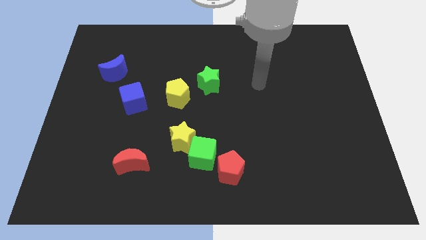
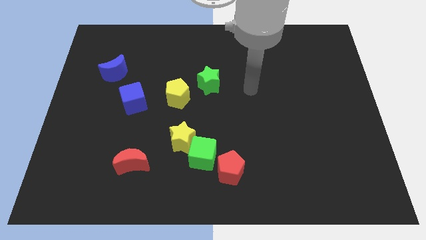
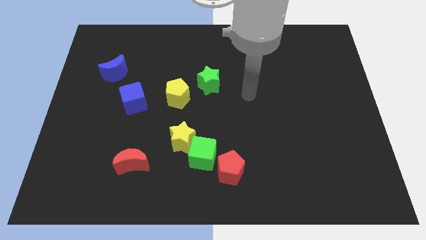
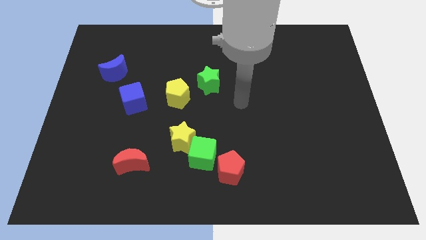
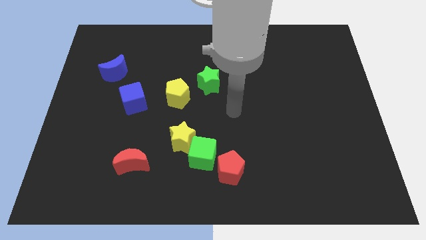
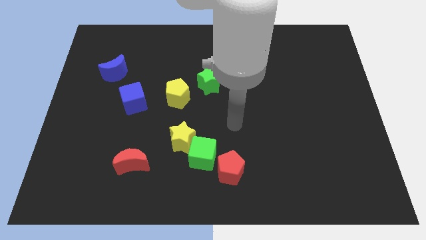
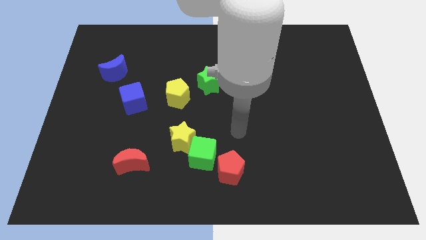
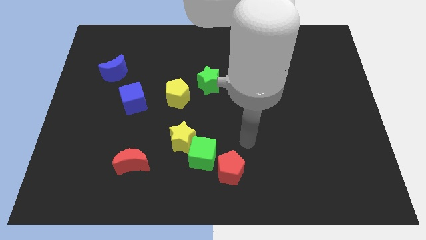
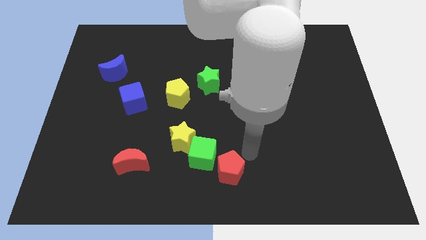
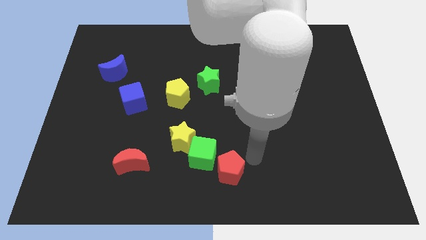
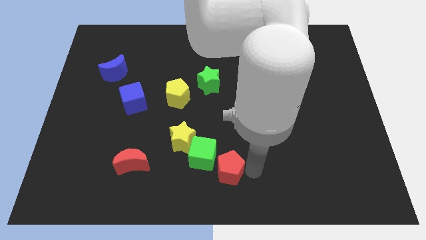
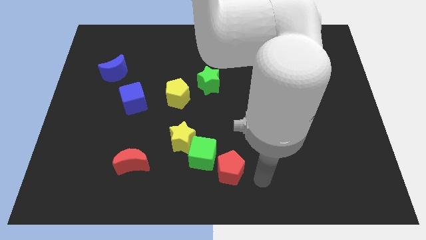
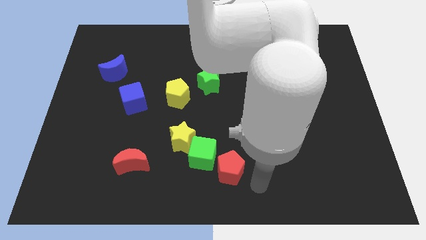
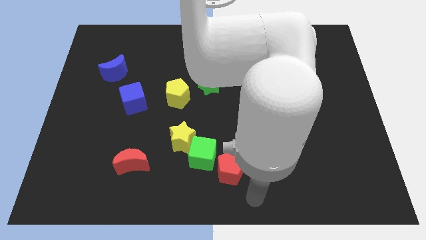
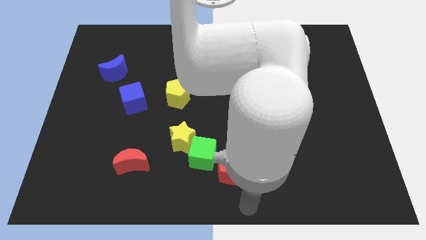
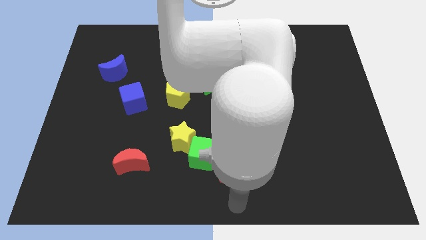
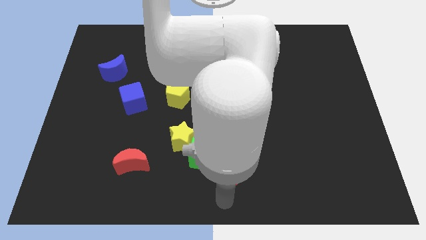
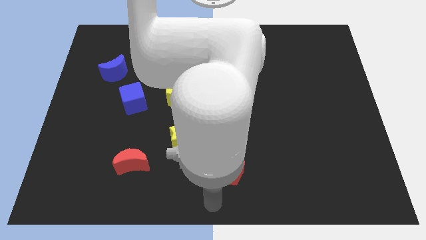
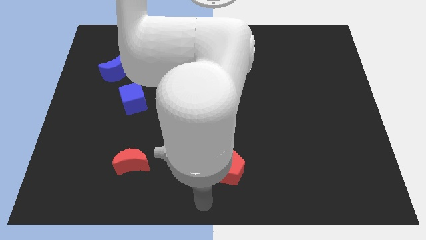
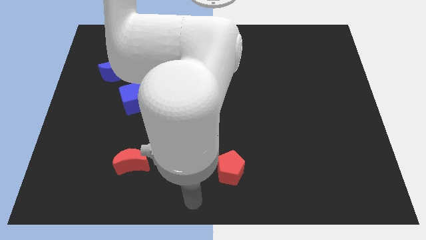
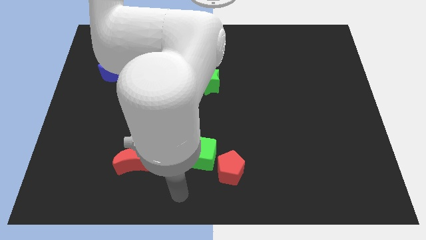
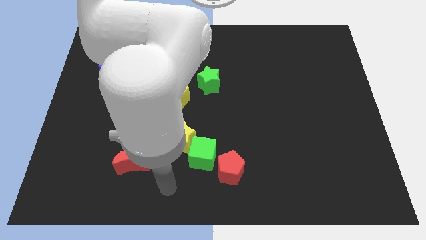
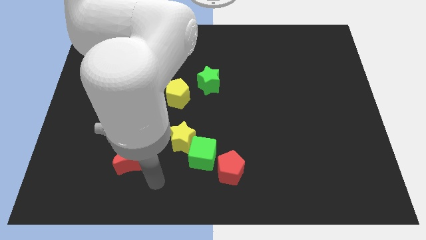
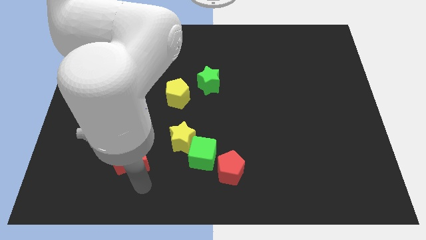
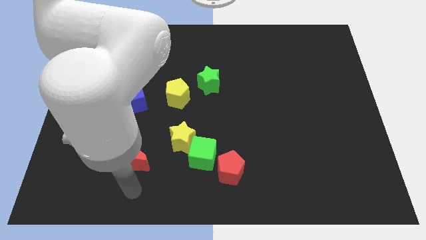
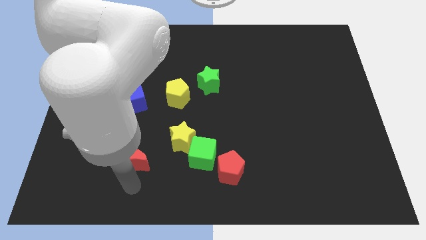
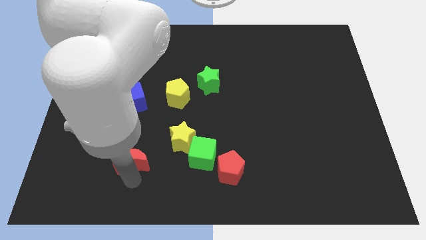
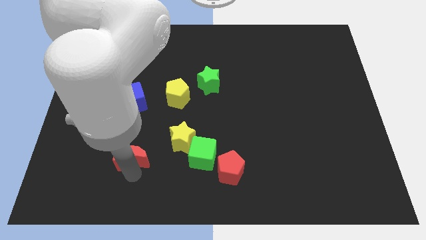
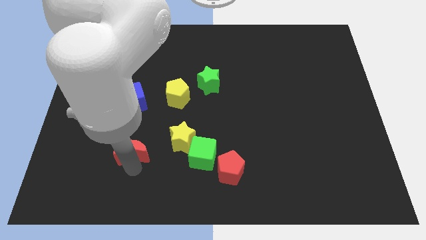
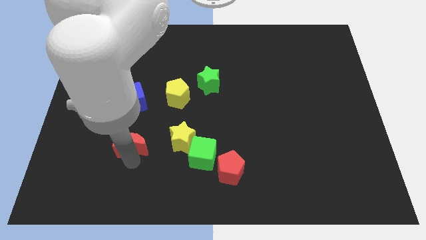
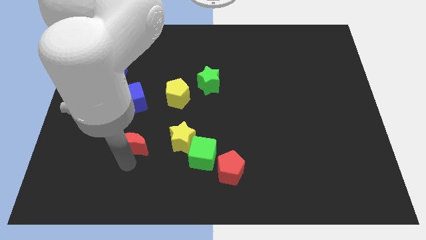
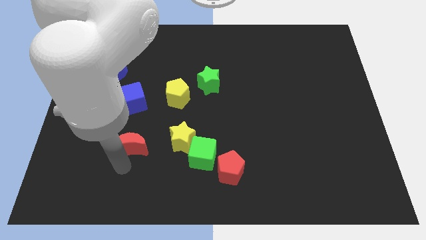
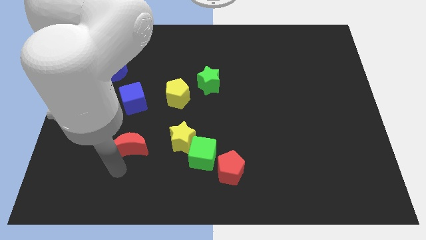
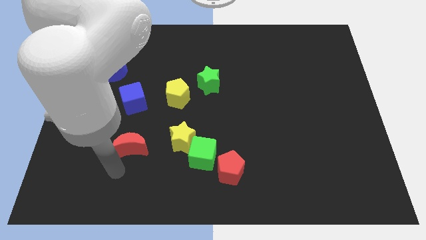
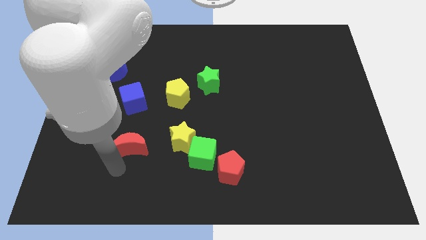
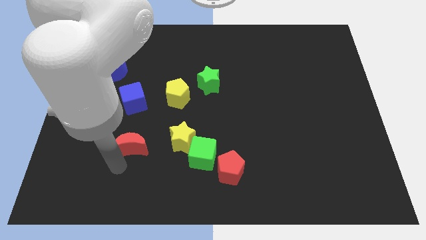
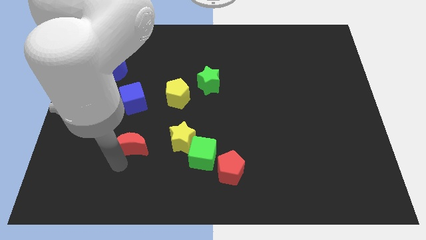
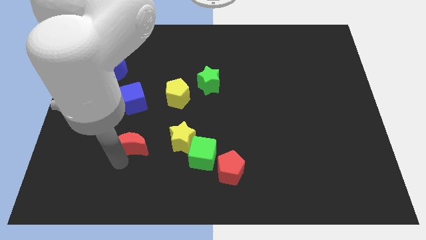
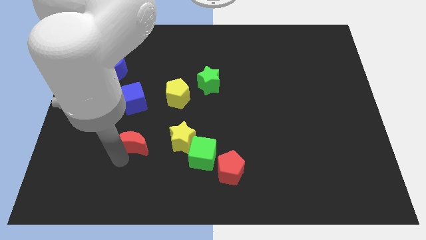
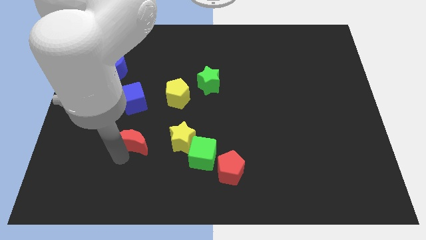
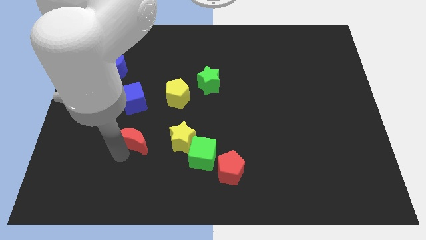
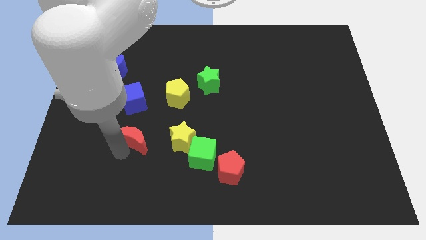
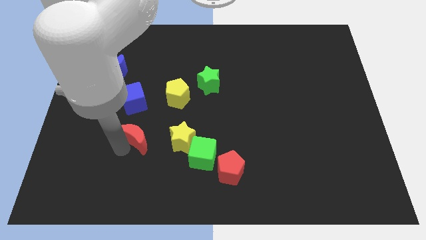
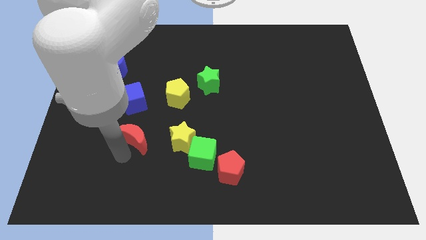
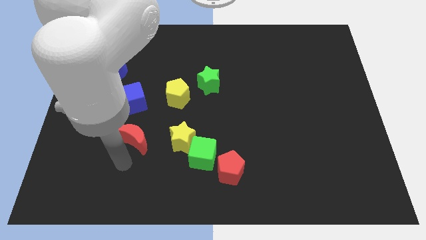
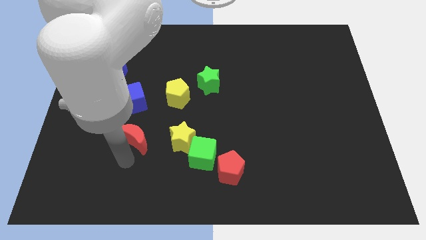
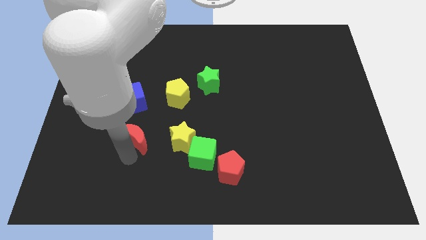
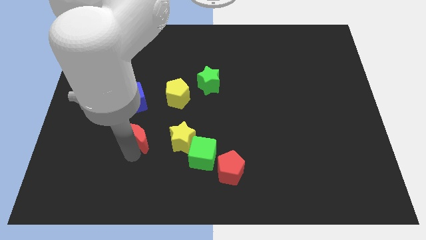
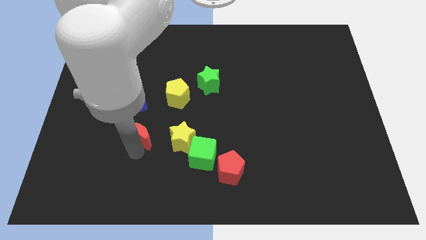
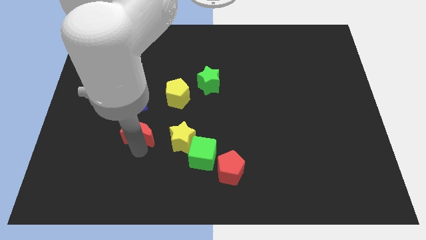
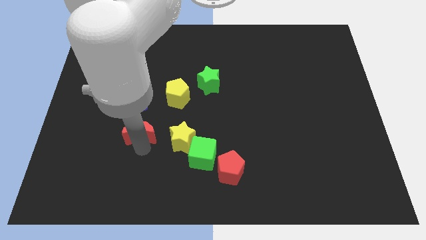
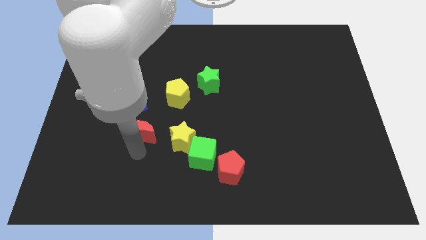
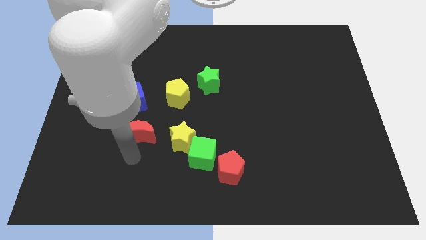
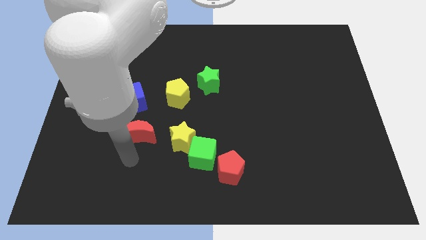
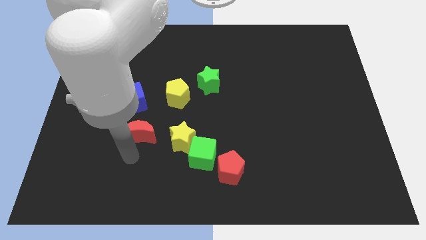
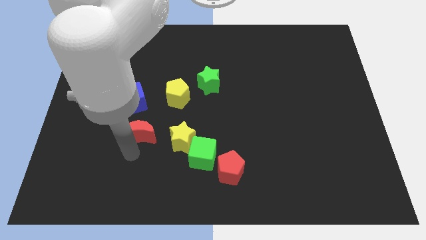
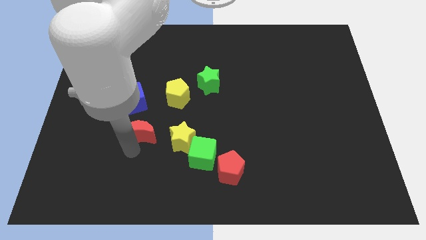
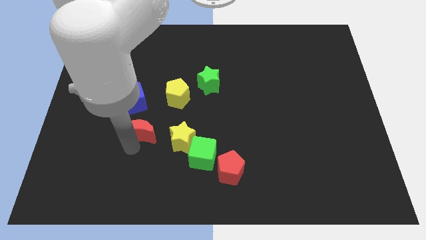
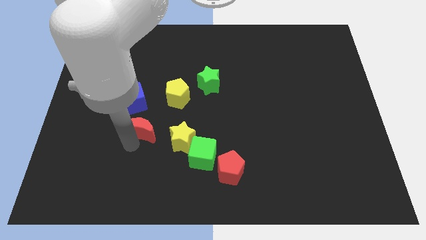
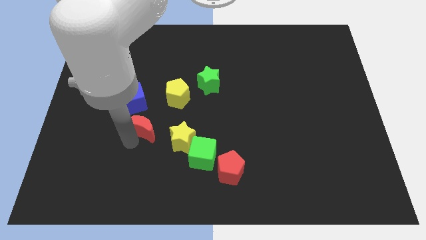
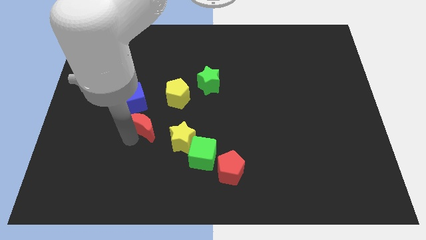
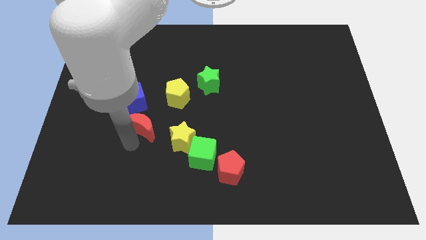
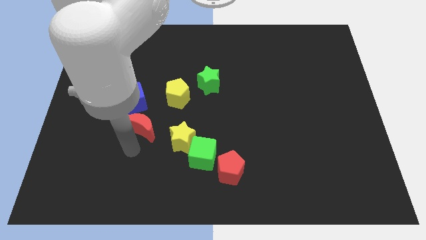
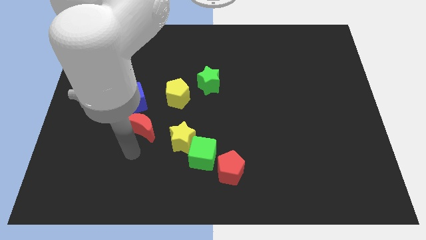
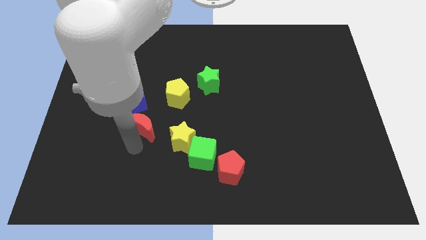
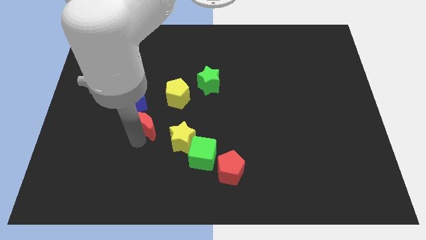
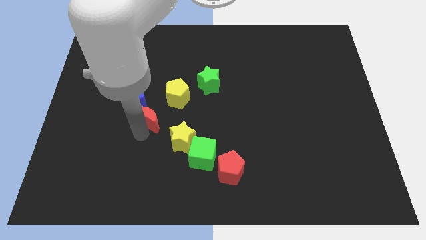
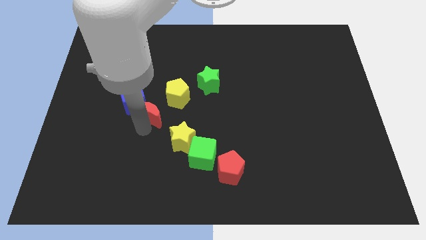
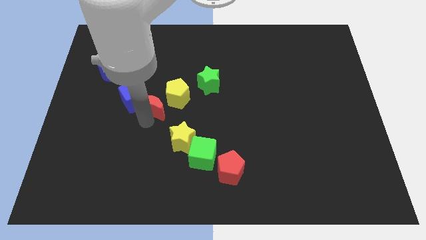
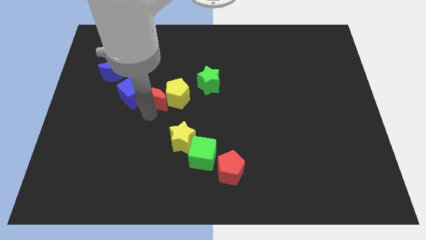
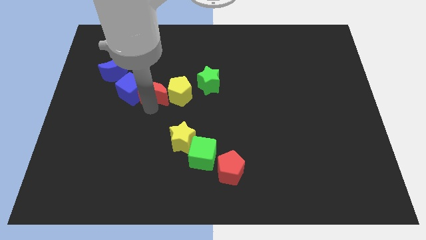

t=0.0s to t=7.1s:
slide the red moon to the left side of the green star
